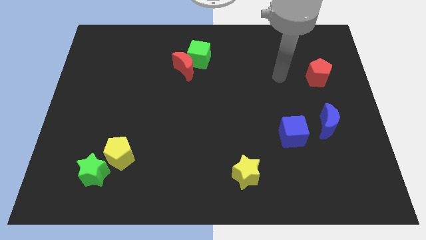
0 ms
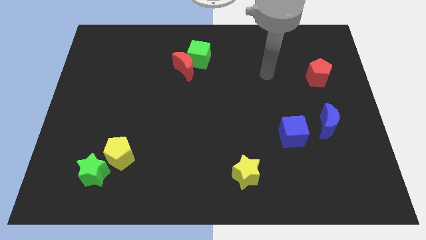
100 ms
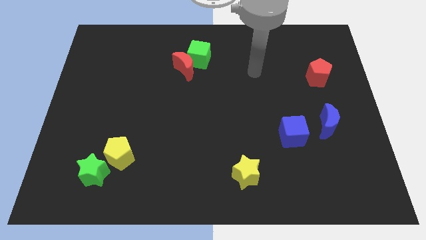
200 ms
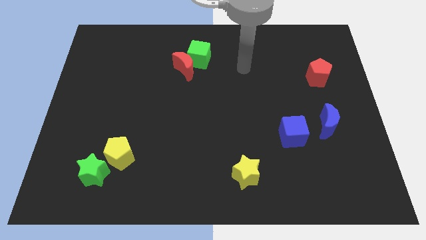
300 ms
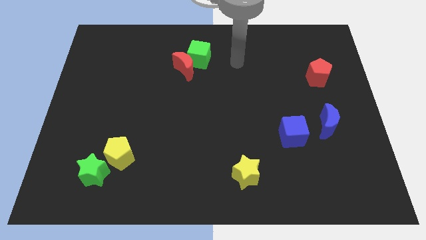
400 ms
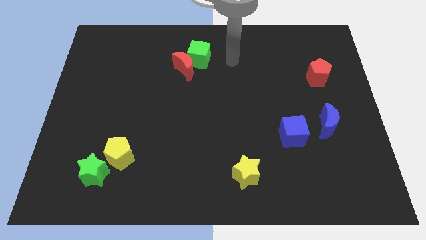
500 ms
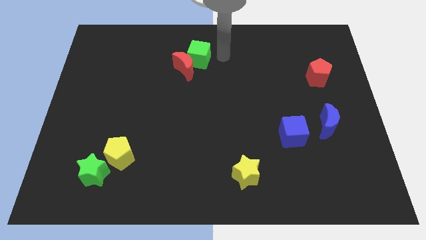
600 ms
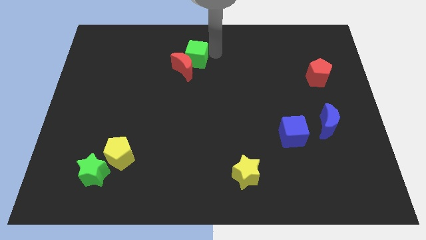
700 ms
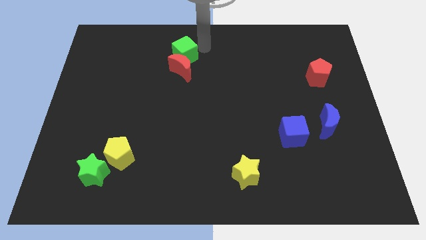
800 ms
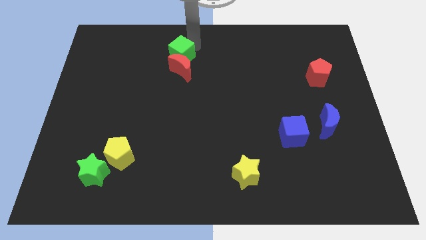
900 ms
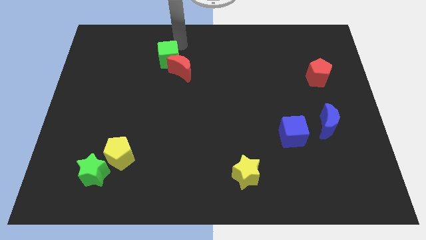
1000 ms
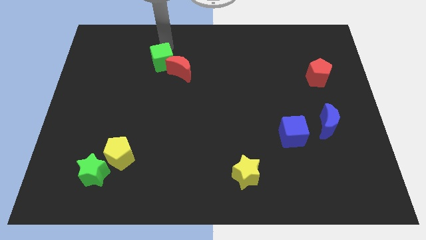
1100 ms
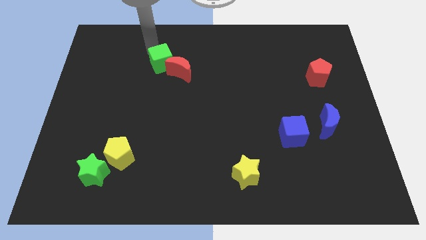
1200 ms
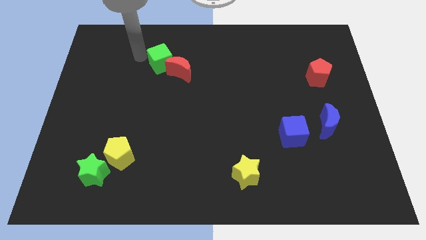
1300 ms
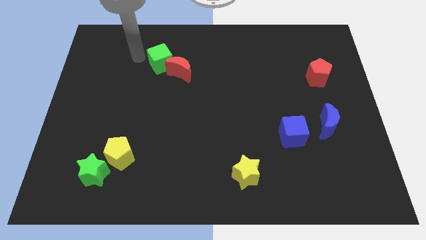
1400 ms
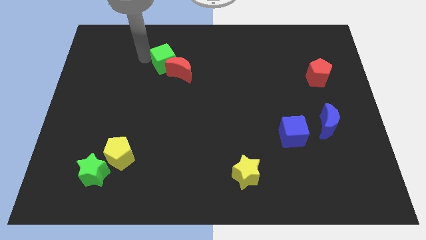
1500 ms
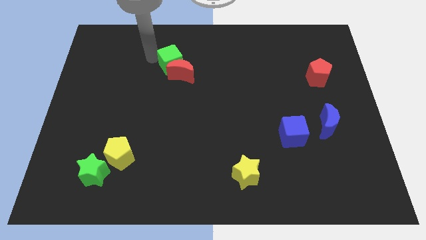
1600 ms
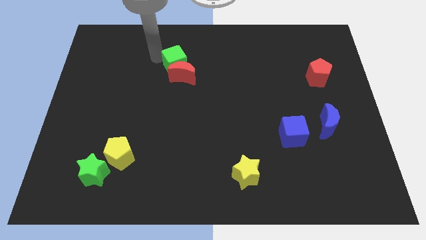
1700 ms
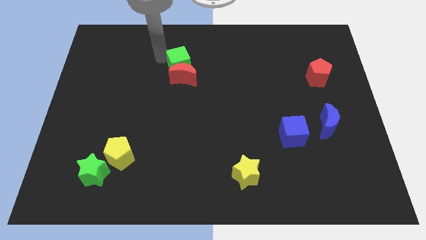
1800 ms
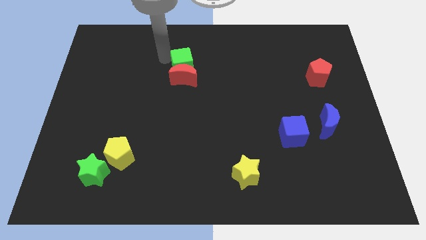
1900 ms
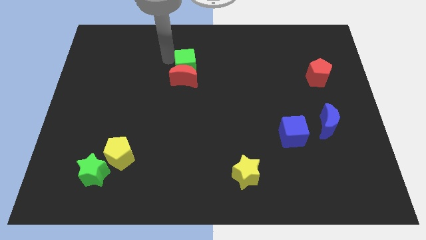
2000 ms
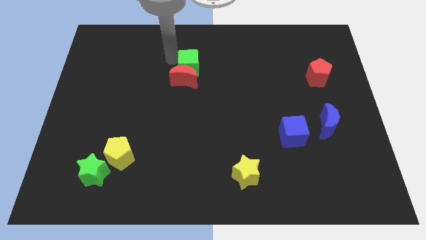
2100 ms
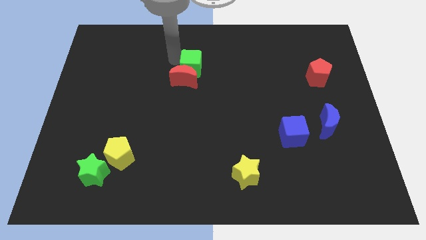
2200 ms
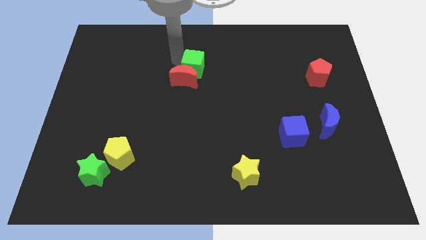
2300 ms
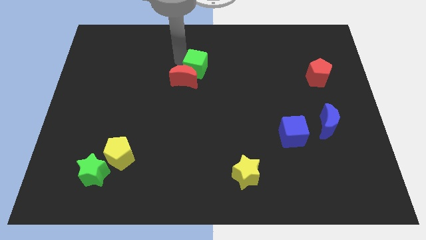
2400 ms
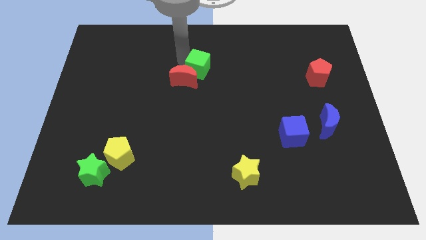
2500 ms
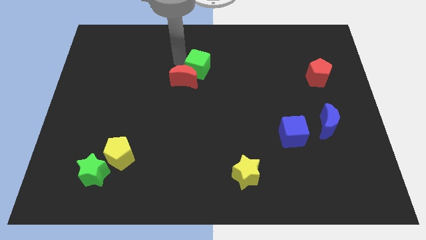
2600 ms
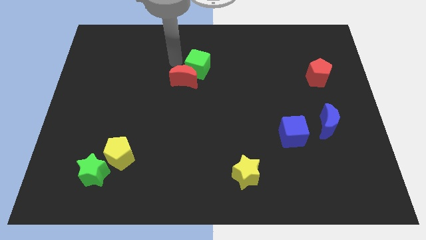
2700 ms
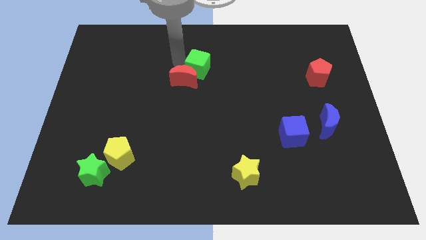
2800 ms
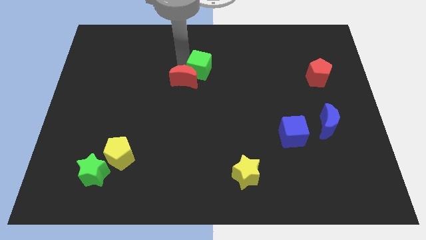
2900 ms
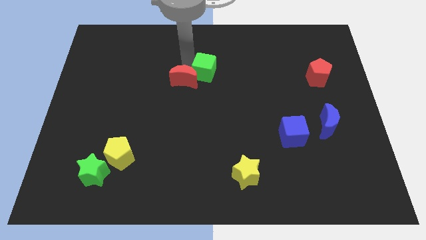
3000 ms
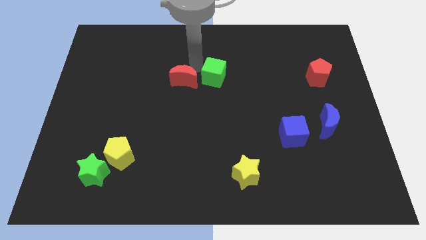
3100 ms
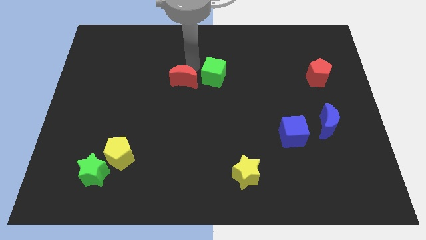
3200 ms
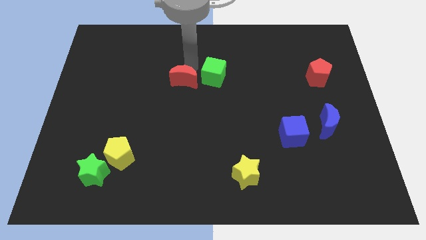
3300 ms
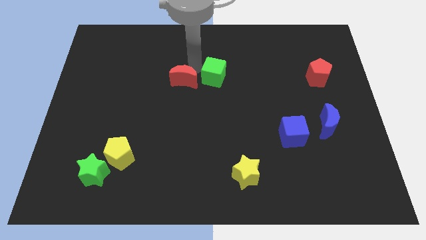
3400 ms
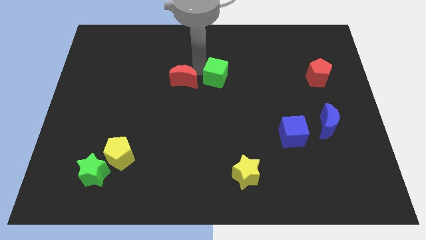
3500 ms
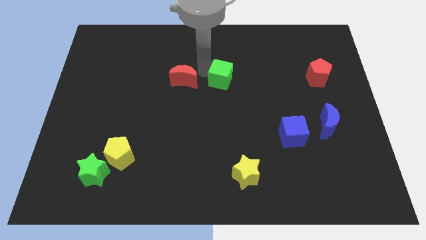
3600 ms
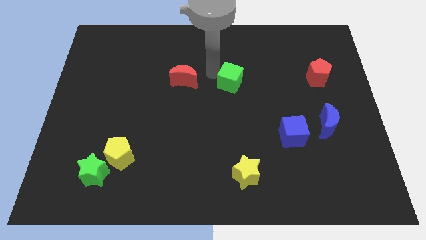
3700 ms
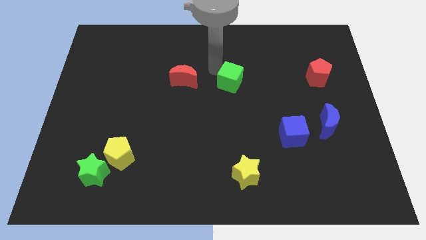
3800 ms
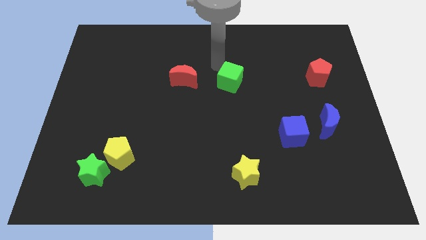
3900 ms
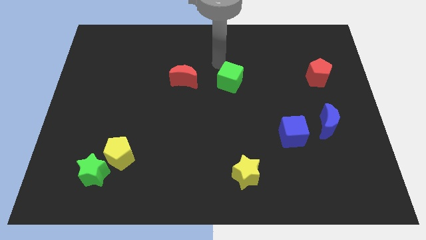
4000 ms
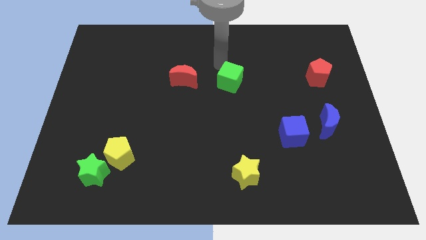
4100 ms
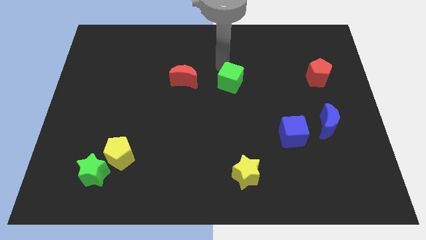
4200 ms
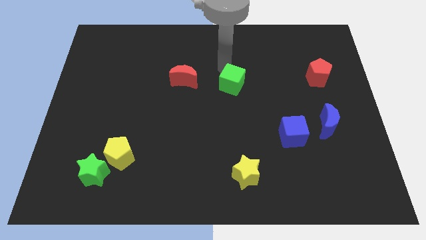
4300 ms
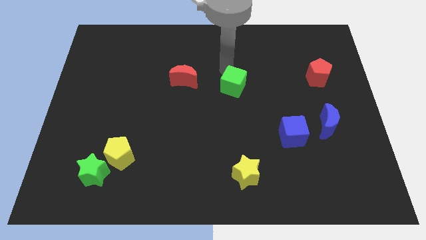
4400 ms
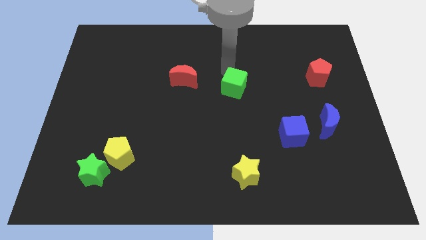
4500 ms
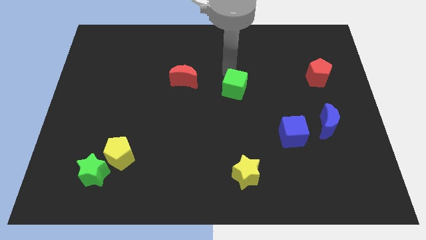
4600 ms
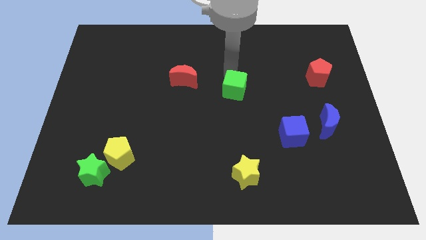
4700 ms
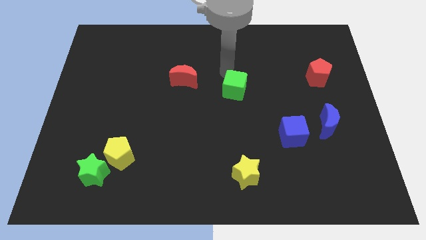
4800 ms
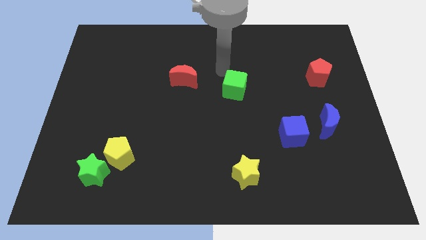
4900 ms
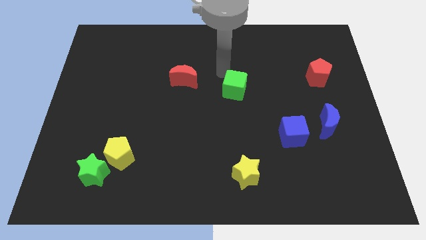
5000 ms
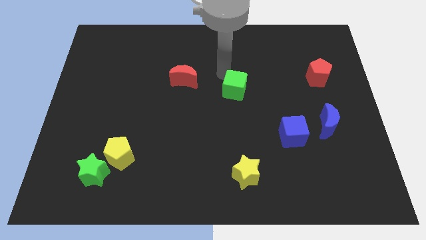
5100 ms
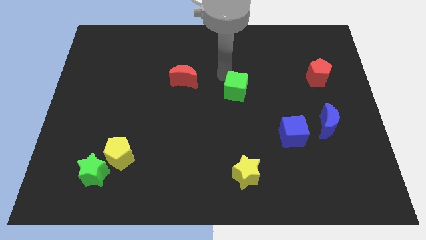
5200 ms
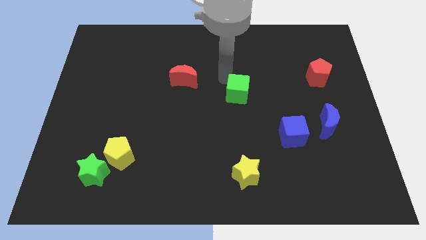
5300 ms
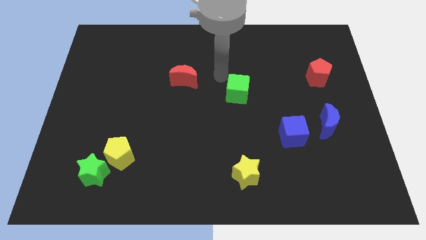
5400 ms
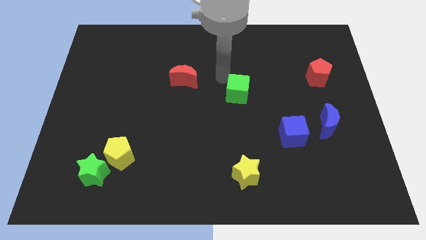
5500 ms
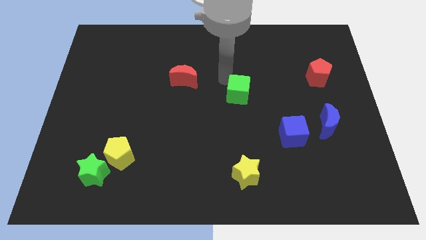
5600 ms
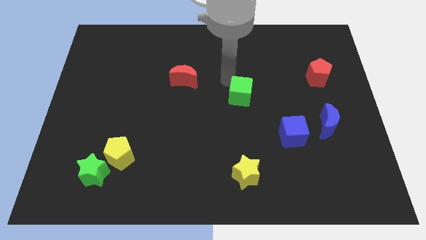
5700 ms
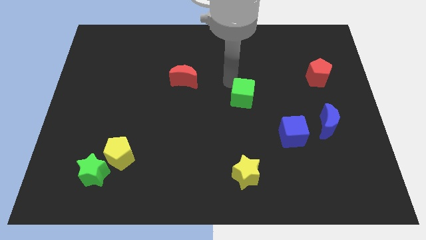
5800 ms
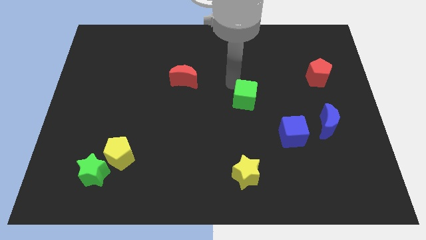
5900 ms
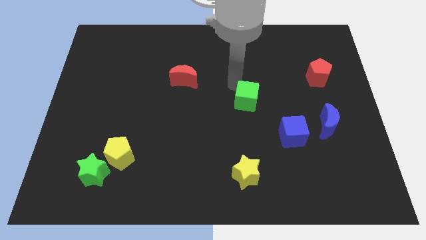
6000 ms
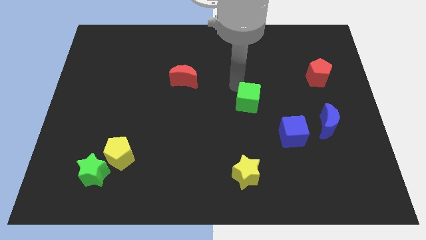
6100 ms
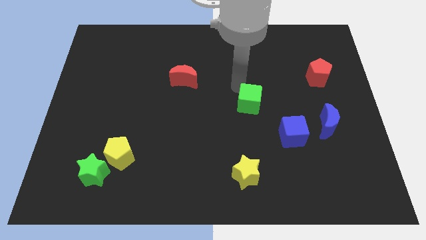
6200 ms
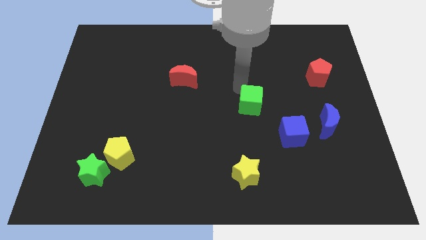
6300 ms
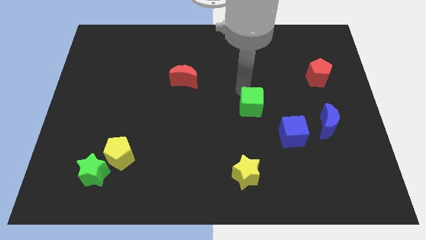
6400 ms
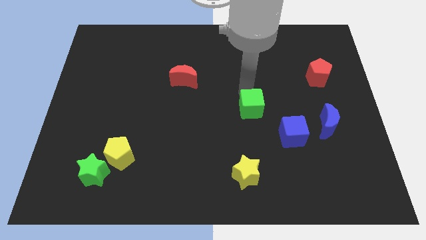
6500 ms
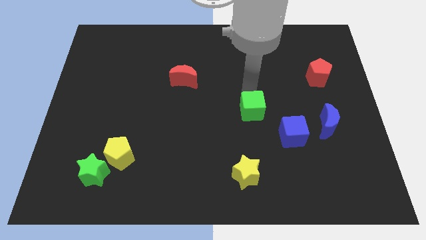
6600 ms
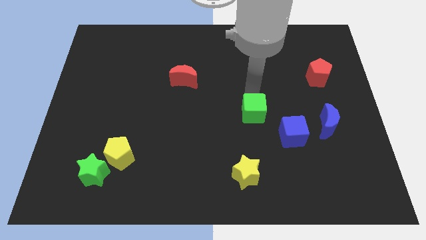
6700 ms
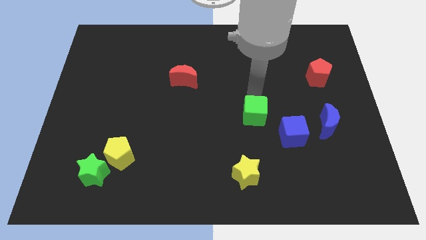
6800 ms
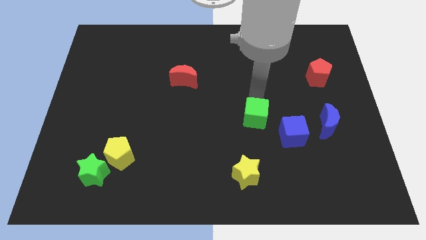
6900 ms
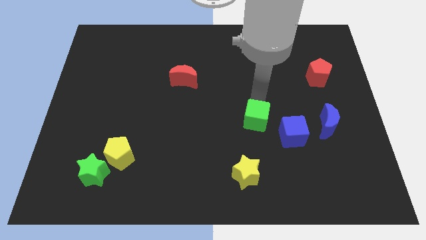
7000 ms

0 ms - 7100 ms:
move the green cube to the left side of the blue moon

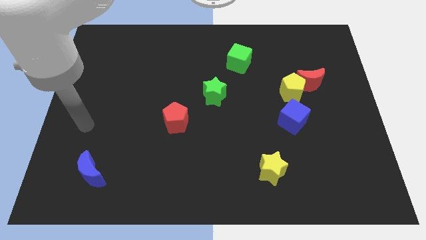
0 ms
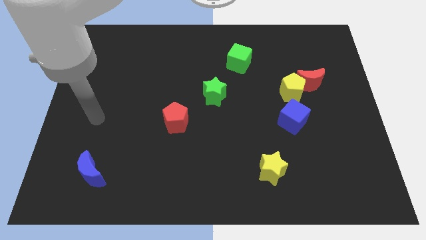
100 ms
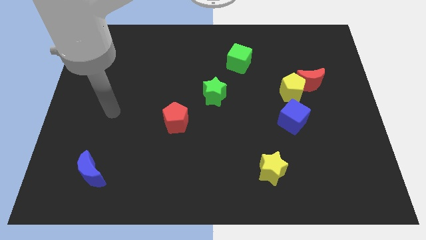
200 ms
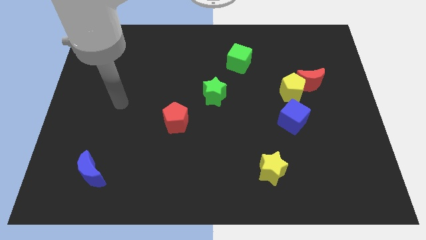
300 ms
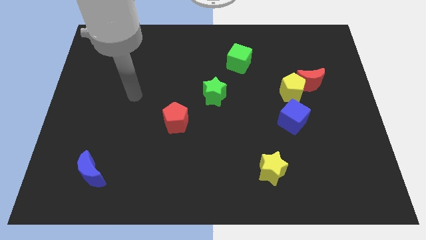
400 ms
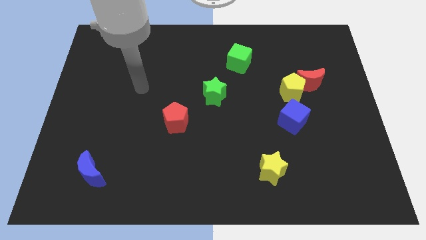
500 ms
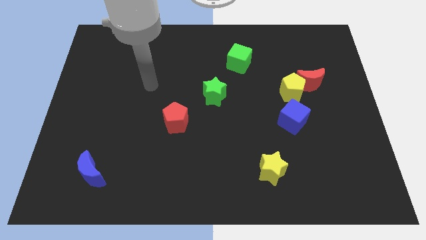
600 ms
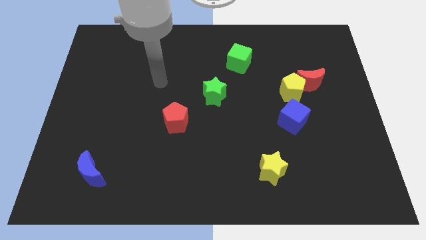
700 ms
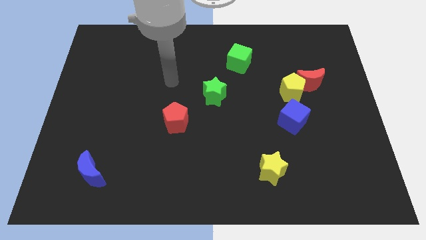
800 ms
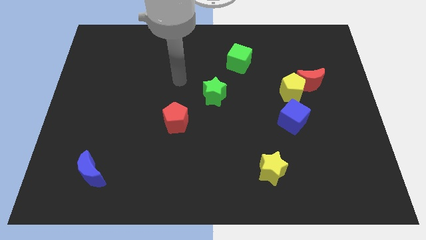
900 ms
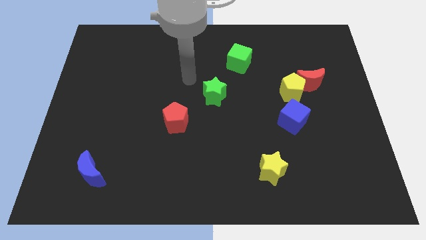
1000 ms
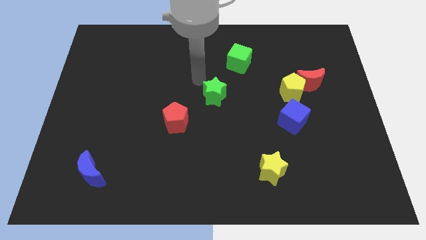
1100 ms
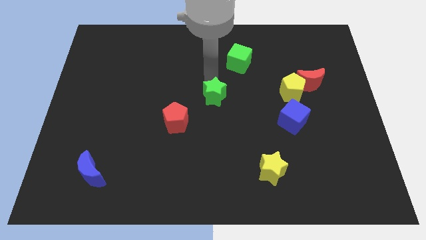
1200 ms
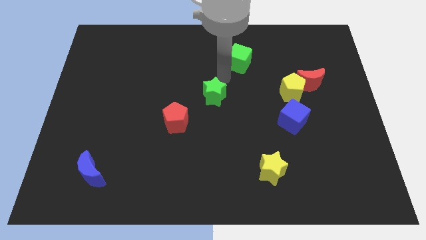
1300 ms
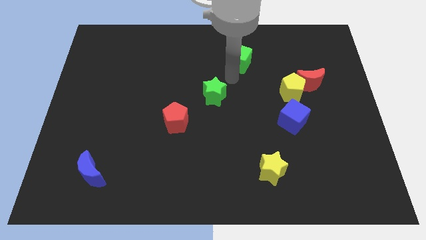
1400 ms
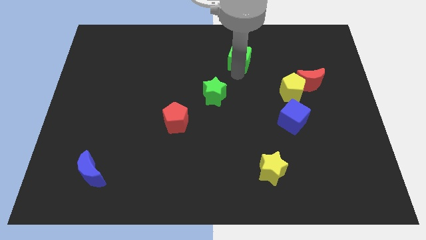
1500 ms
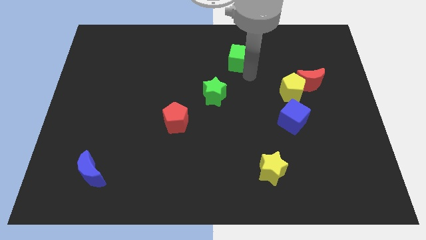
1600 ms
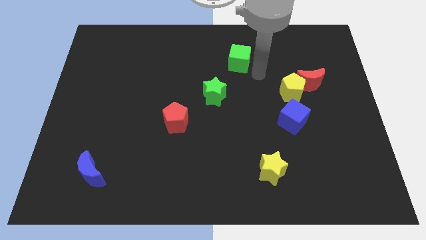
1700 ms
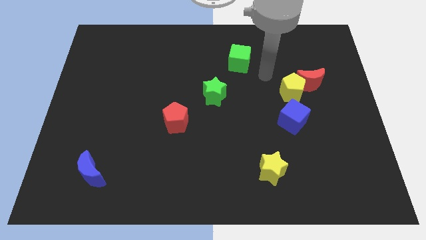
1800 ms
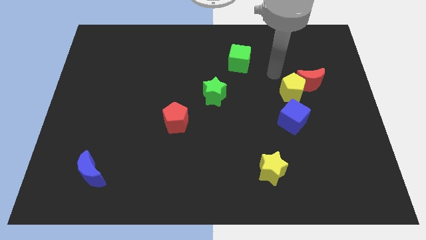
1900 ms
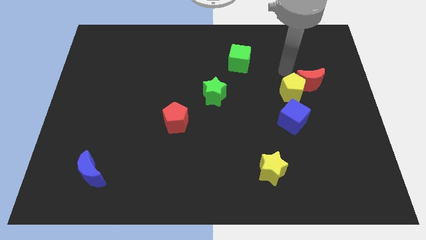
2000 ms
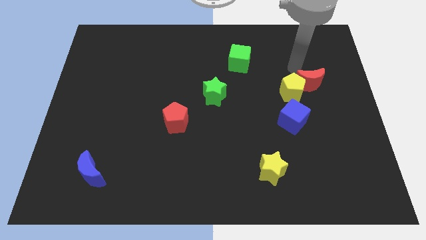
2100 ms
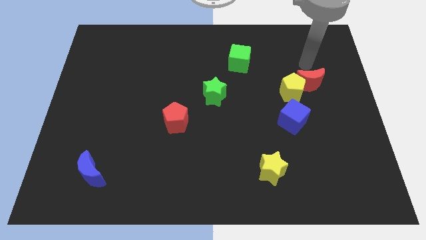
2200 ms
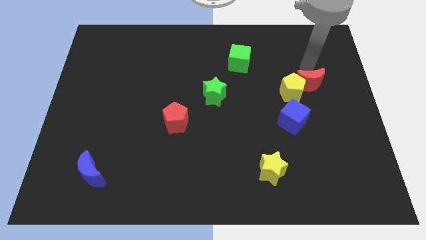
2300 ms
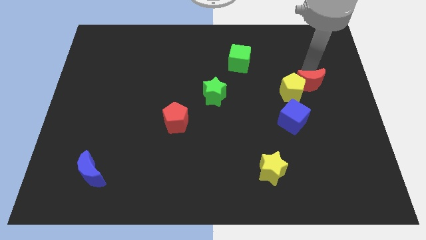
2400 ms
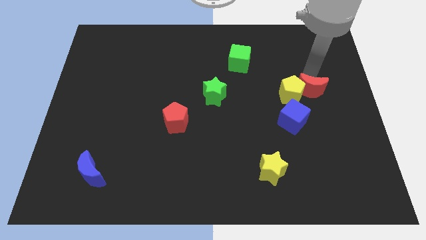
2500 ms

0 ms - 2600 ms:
put the red moon to the top right of the blue cube
